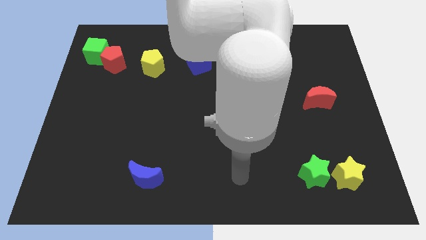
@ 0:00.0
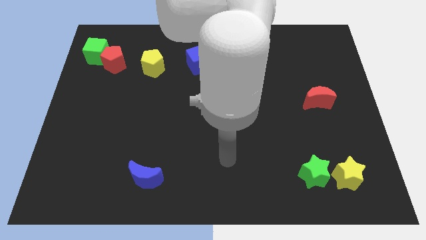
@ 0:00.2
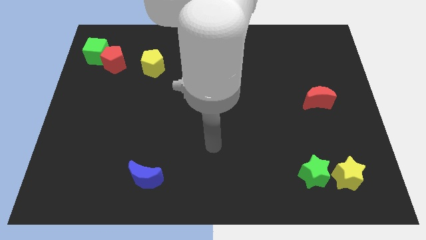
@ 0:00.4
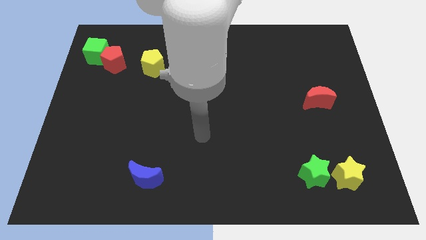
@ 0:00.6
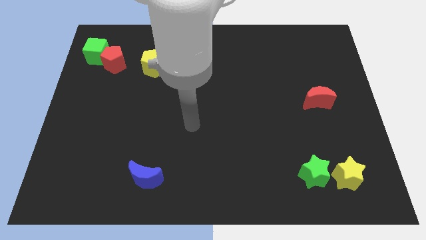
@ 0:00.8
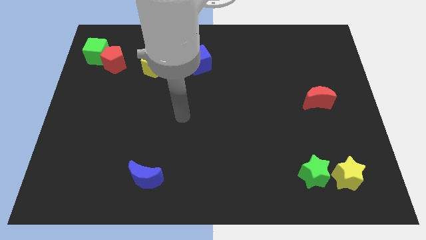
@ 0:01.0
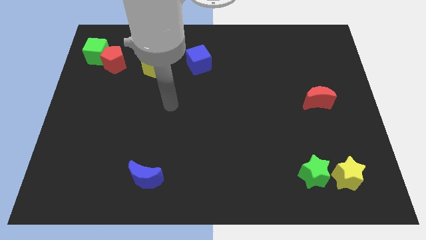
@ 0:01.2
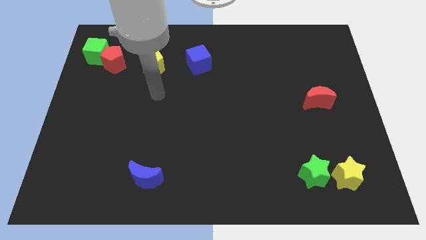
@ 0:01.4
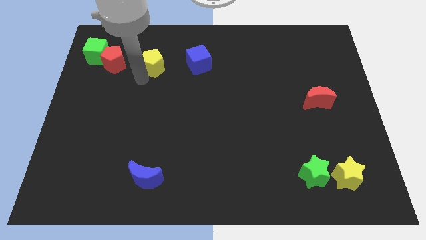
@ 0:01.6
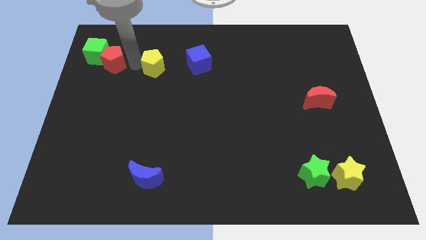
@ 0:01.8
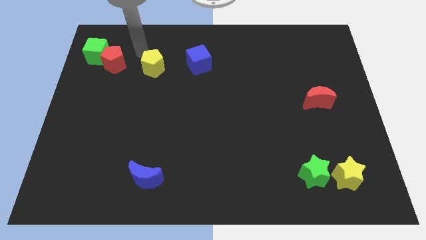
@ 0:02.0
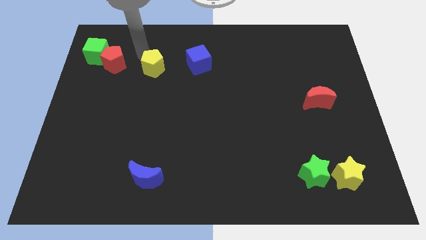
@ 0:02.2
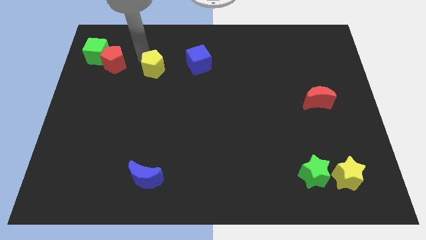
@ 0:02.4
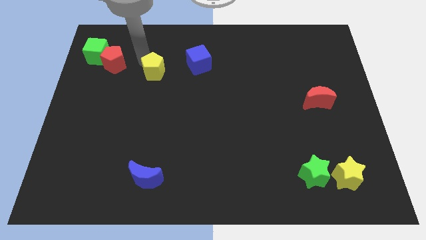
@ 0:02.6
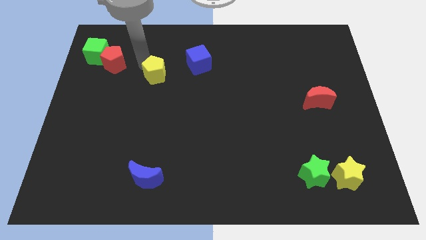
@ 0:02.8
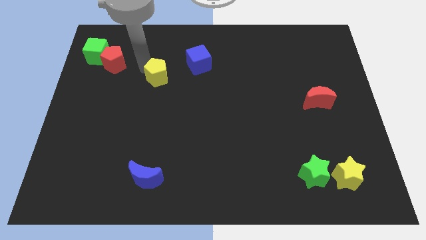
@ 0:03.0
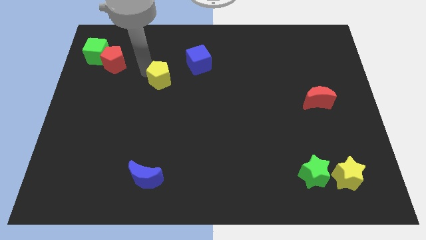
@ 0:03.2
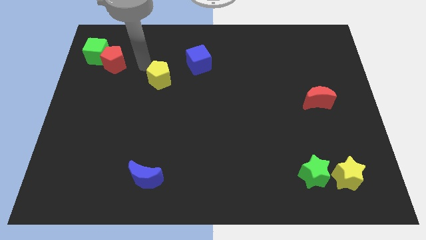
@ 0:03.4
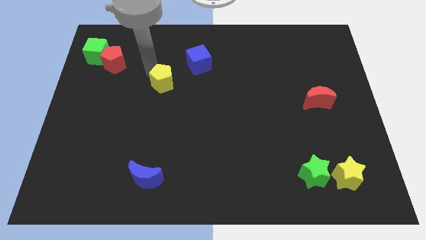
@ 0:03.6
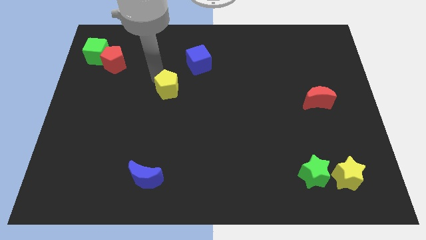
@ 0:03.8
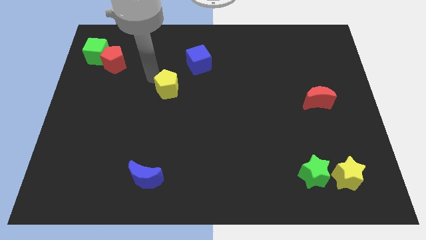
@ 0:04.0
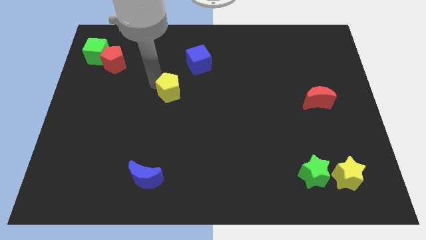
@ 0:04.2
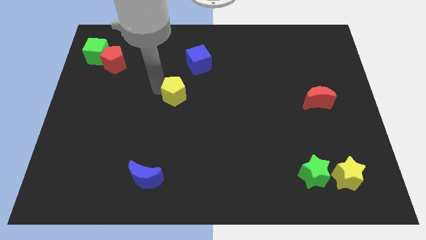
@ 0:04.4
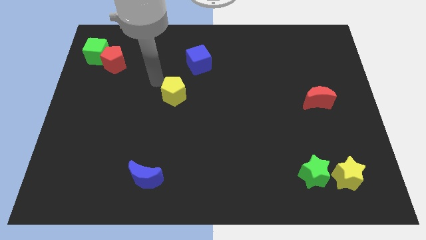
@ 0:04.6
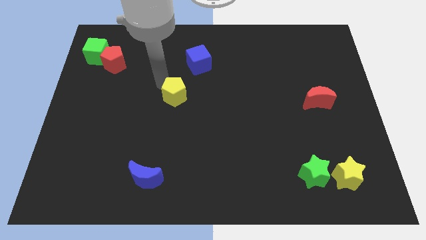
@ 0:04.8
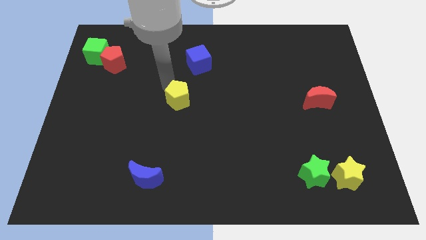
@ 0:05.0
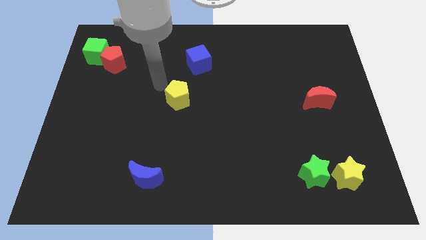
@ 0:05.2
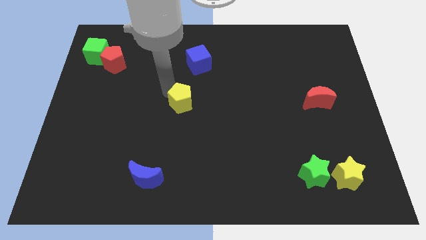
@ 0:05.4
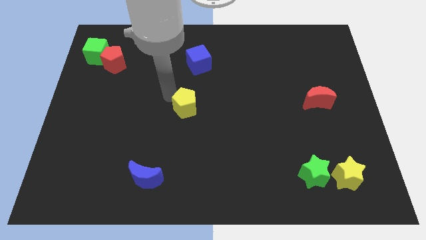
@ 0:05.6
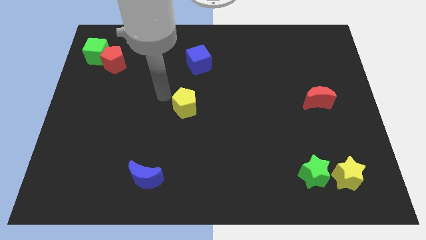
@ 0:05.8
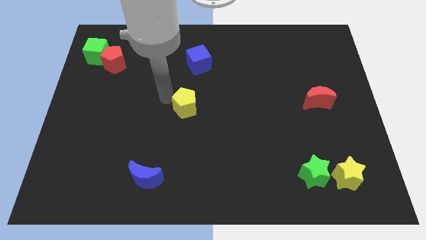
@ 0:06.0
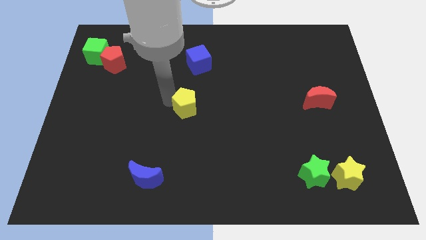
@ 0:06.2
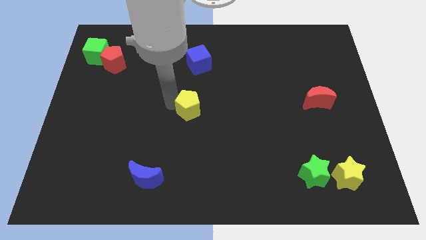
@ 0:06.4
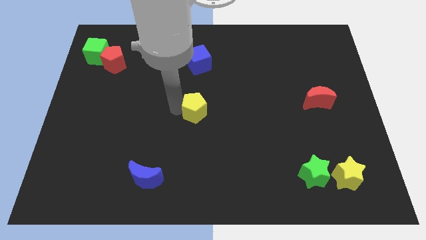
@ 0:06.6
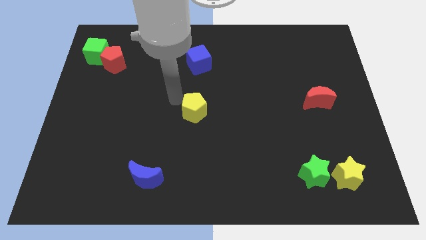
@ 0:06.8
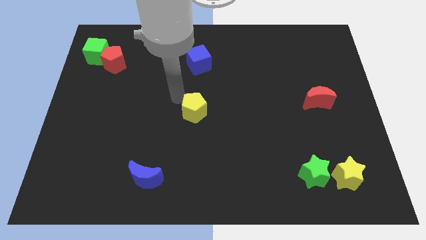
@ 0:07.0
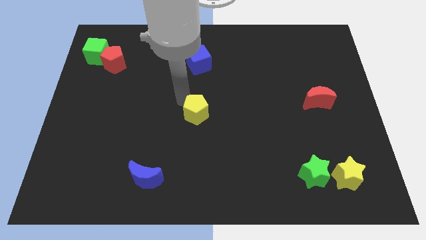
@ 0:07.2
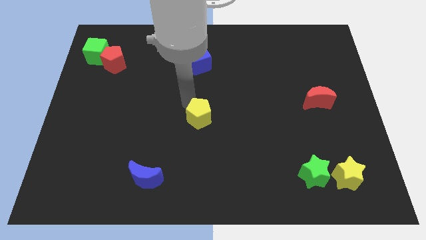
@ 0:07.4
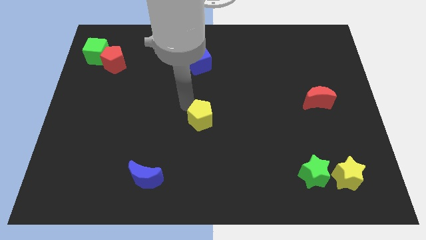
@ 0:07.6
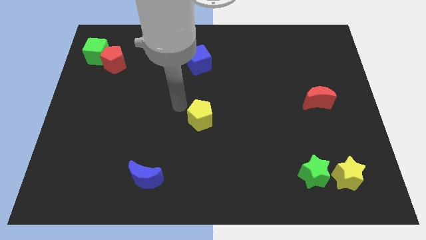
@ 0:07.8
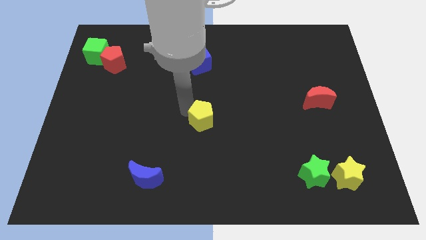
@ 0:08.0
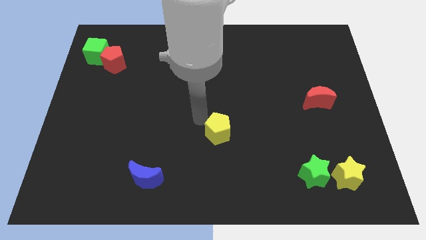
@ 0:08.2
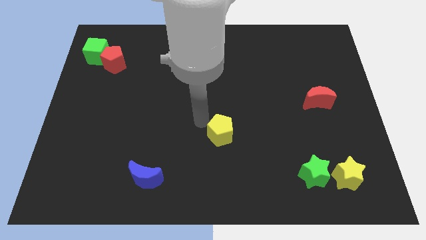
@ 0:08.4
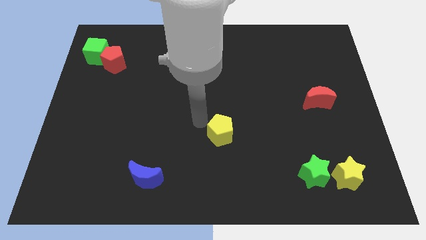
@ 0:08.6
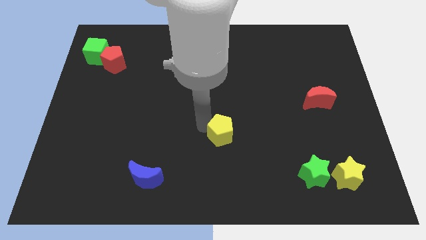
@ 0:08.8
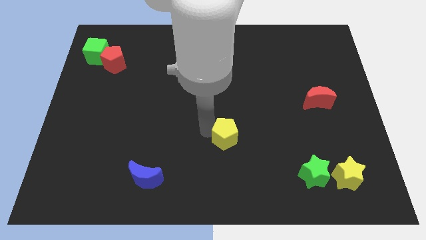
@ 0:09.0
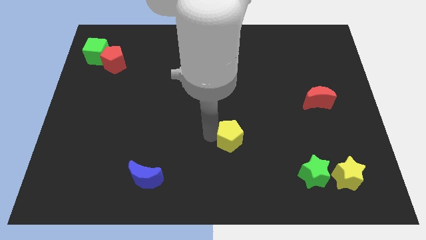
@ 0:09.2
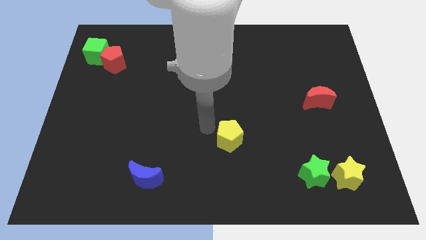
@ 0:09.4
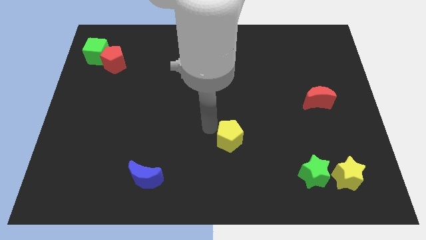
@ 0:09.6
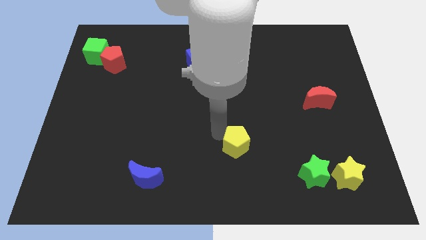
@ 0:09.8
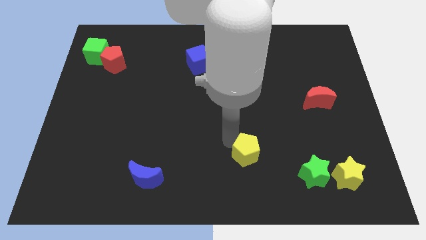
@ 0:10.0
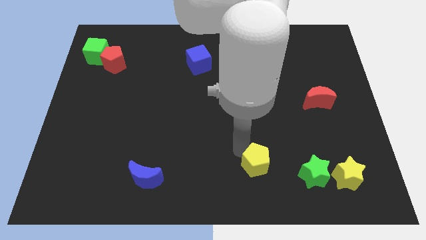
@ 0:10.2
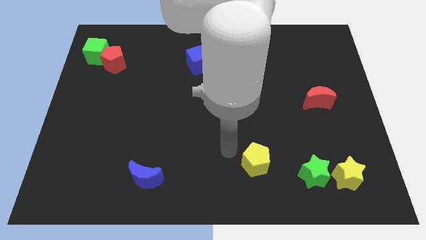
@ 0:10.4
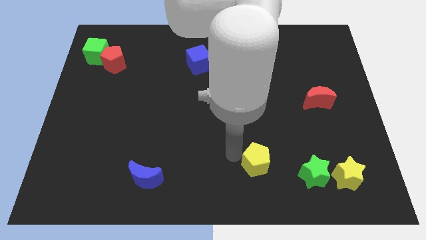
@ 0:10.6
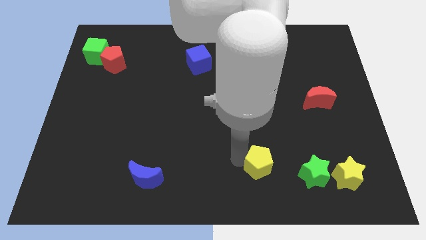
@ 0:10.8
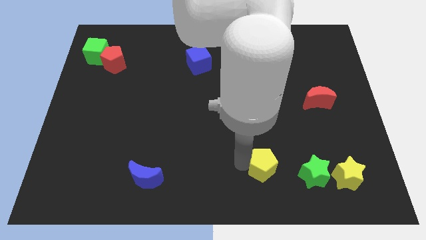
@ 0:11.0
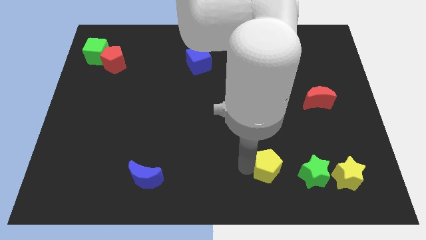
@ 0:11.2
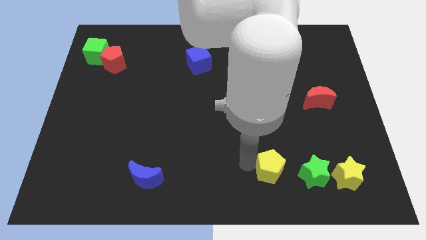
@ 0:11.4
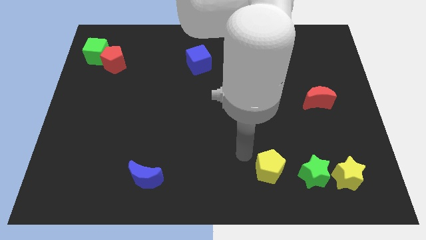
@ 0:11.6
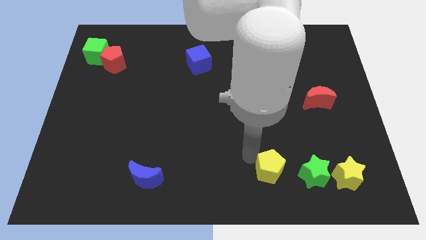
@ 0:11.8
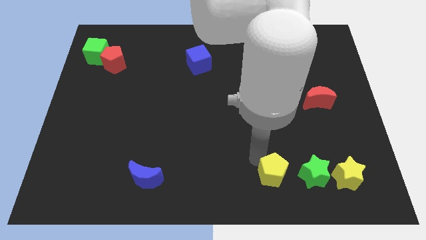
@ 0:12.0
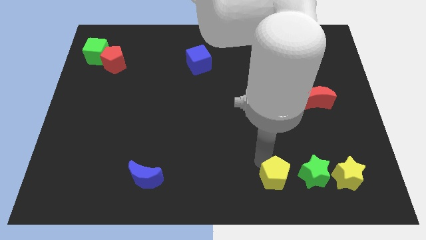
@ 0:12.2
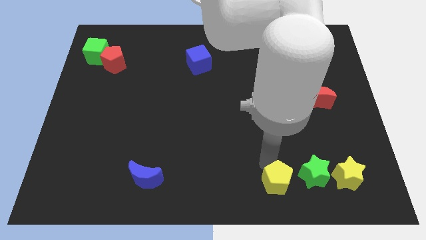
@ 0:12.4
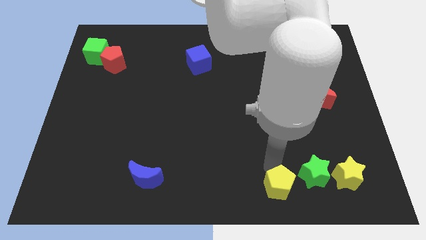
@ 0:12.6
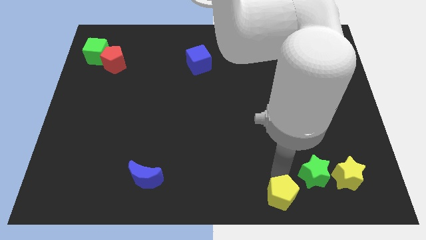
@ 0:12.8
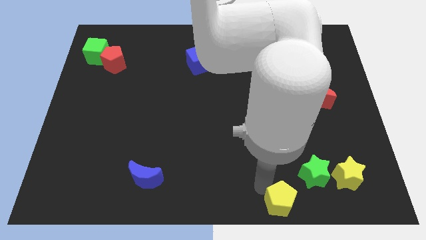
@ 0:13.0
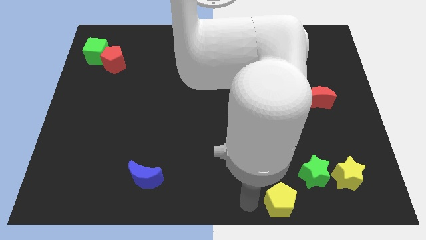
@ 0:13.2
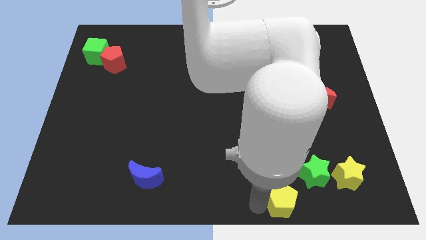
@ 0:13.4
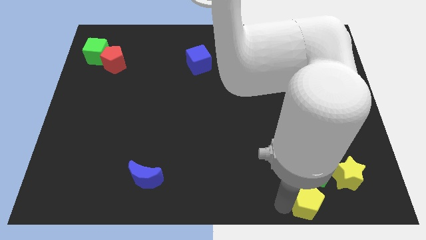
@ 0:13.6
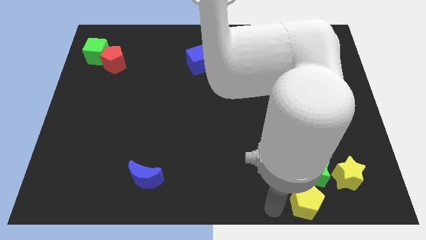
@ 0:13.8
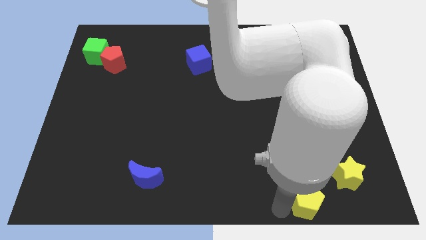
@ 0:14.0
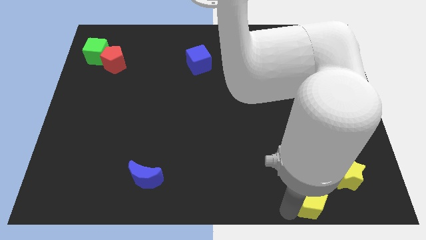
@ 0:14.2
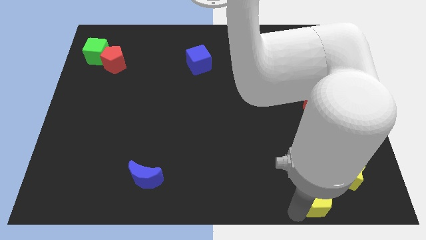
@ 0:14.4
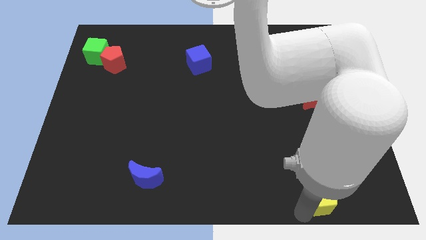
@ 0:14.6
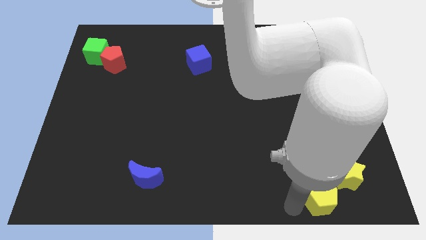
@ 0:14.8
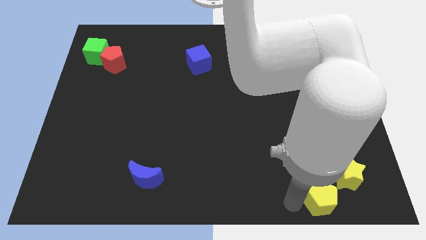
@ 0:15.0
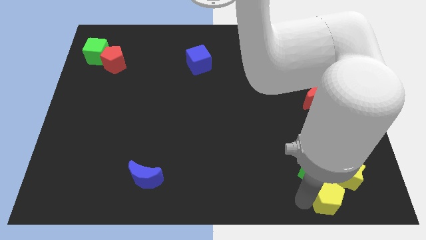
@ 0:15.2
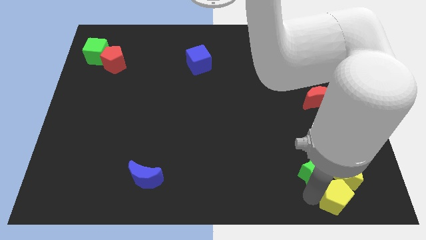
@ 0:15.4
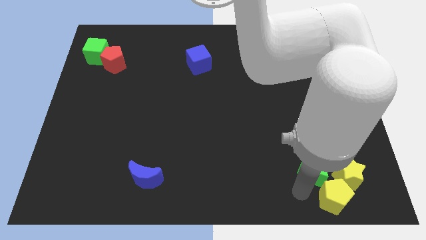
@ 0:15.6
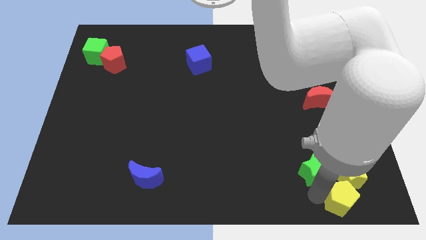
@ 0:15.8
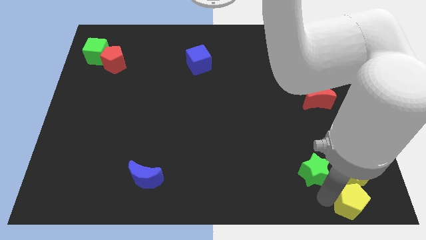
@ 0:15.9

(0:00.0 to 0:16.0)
move the yellow pentagon to the bottom right of the board
